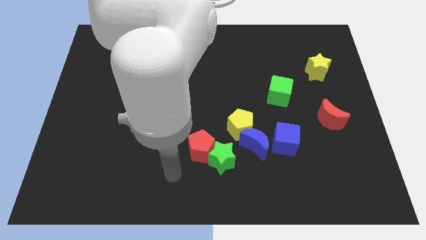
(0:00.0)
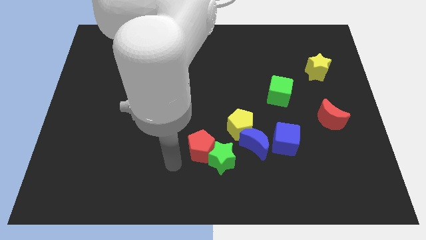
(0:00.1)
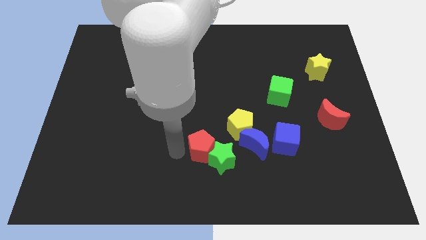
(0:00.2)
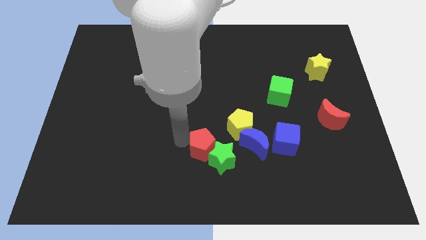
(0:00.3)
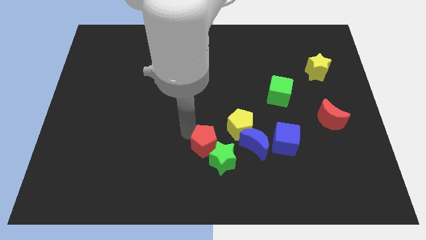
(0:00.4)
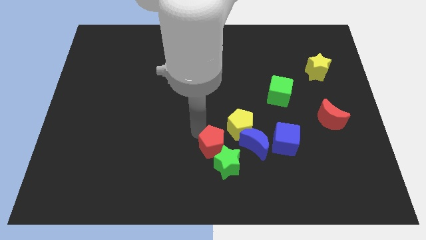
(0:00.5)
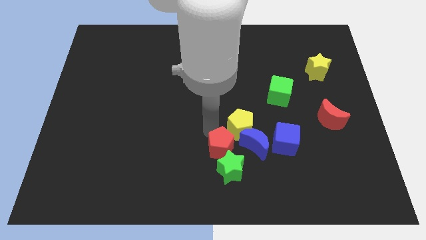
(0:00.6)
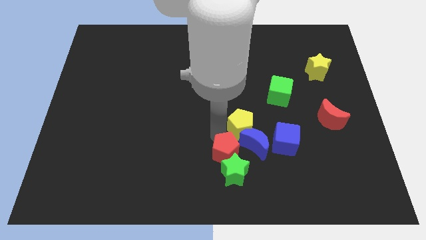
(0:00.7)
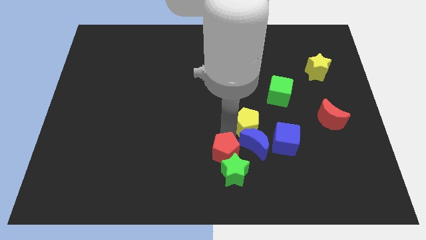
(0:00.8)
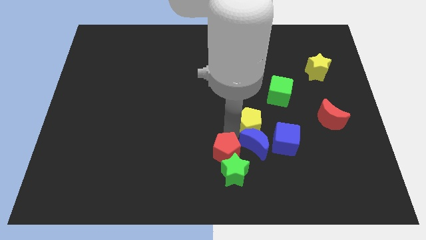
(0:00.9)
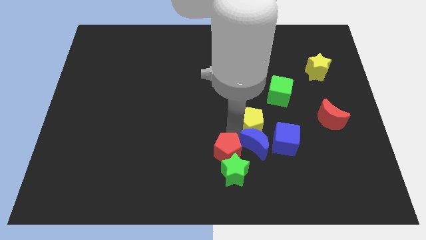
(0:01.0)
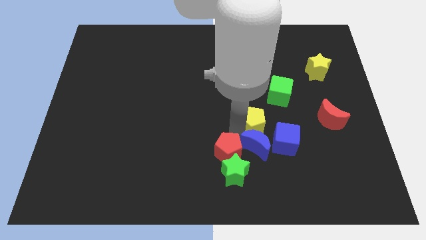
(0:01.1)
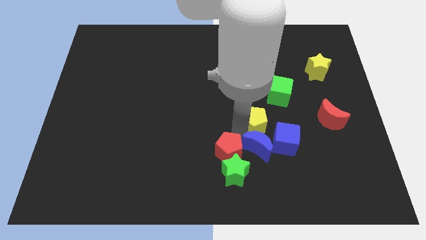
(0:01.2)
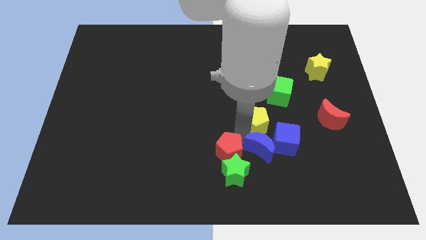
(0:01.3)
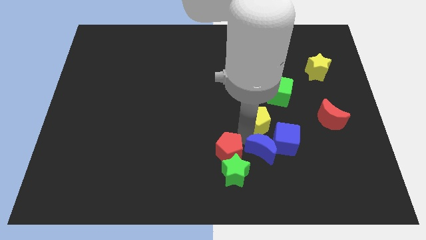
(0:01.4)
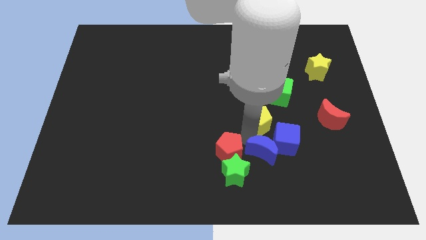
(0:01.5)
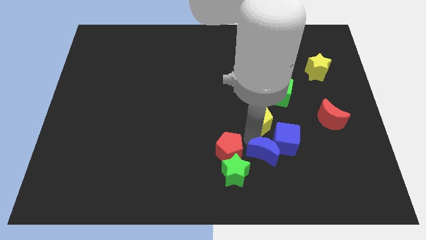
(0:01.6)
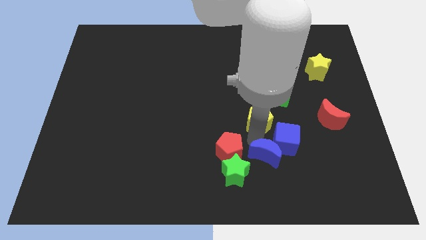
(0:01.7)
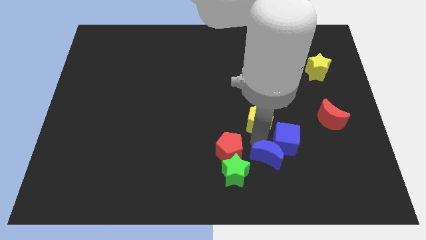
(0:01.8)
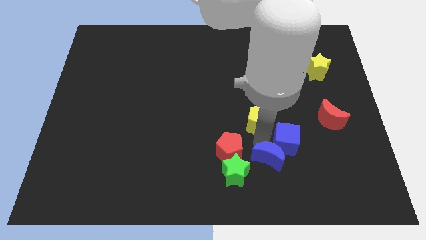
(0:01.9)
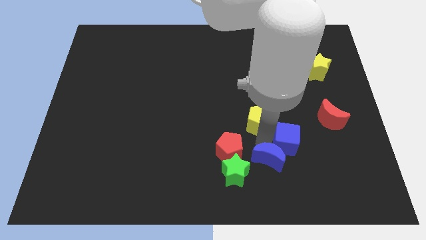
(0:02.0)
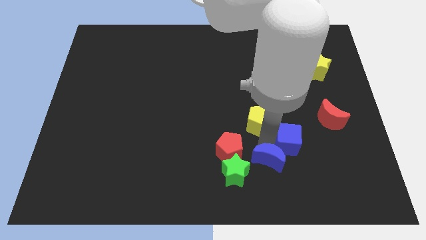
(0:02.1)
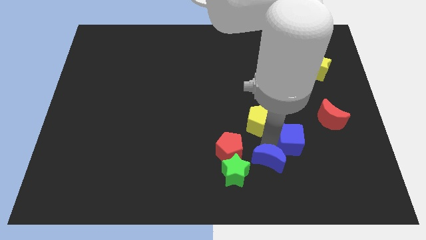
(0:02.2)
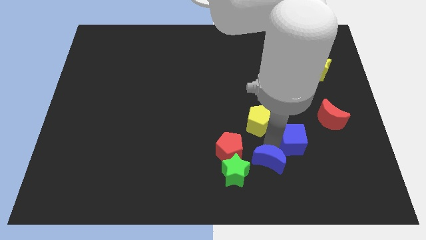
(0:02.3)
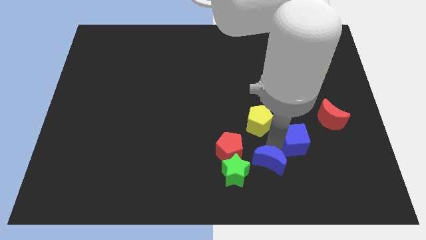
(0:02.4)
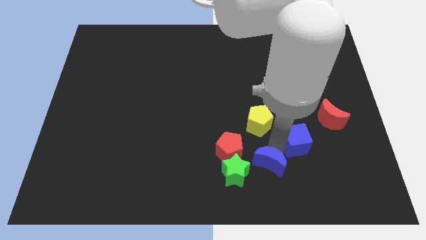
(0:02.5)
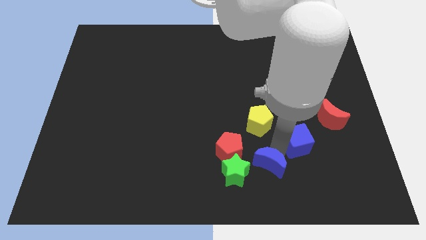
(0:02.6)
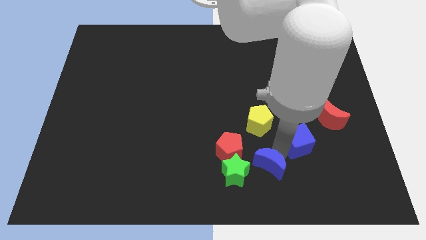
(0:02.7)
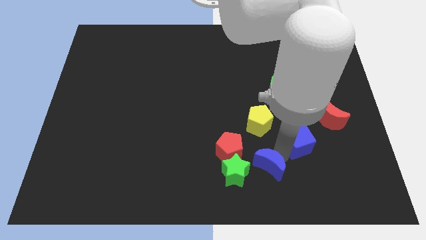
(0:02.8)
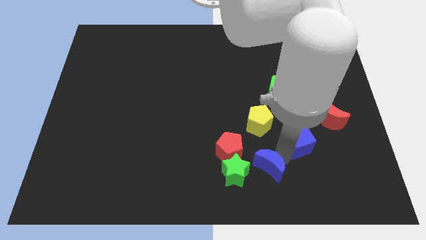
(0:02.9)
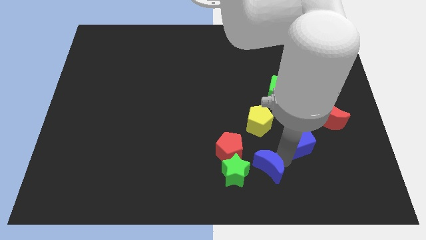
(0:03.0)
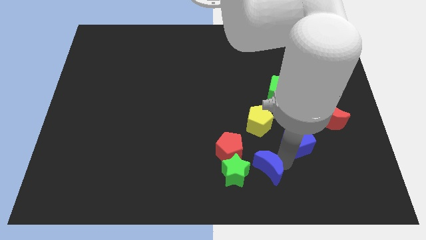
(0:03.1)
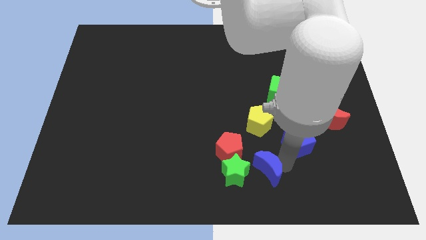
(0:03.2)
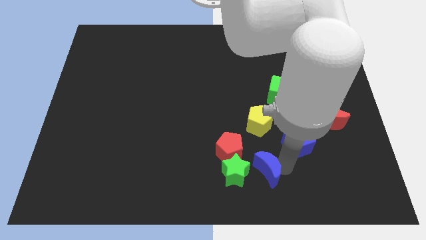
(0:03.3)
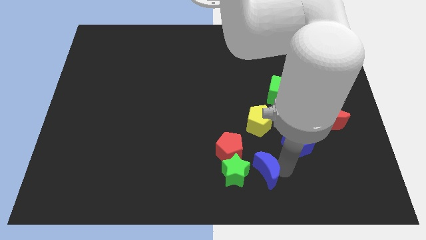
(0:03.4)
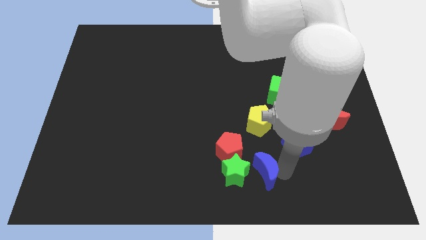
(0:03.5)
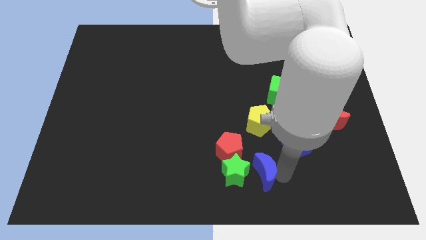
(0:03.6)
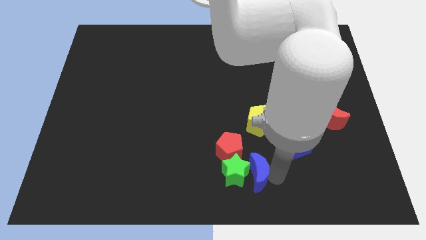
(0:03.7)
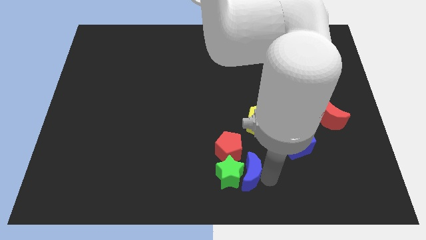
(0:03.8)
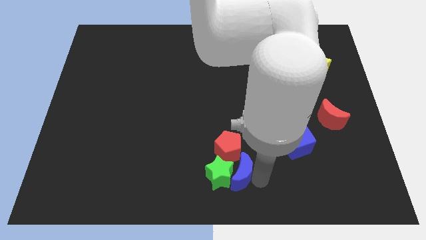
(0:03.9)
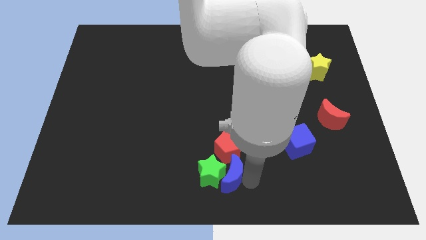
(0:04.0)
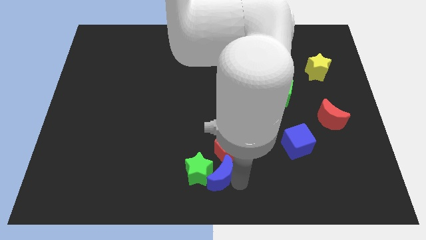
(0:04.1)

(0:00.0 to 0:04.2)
separate the blue moon from the group

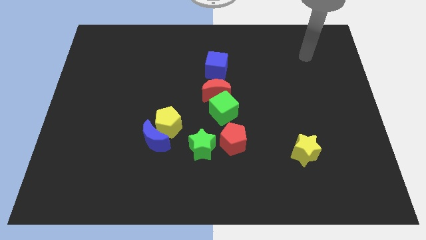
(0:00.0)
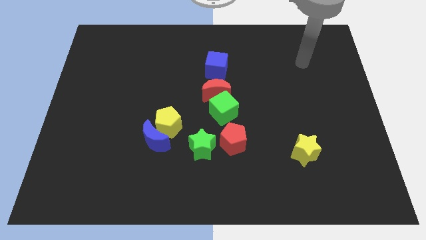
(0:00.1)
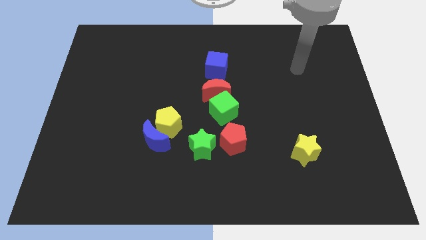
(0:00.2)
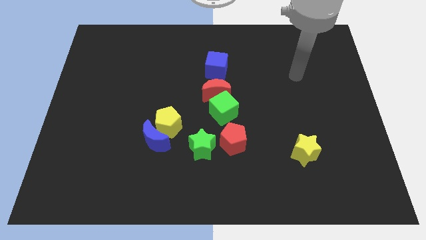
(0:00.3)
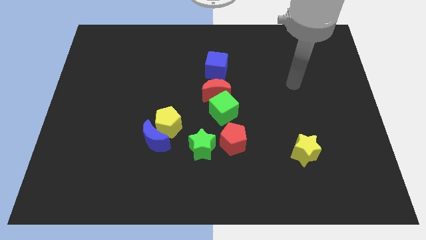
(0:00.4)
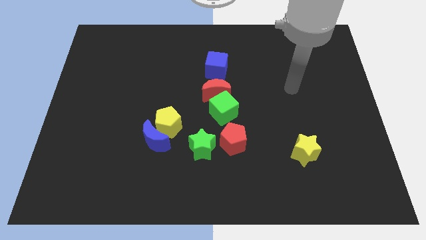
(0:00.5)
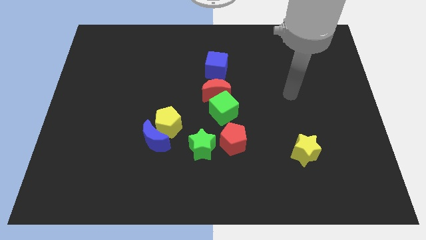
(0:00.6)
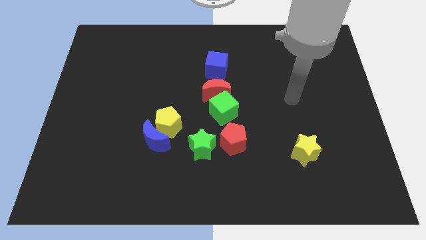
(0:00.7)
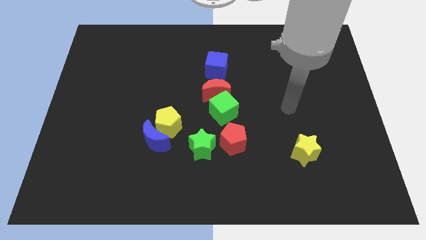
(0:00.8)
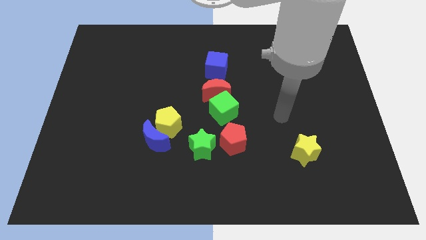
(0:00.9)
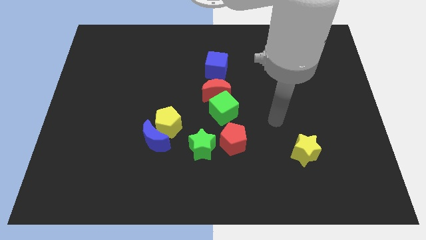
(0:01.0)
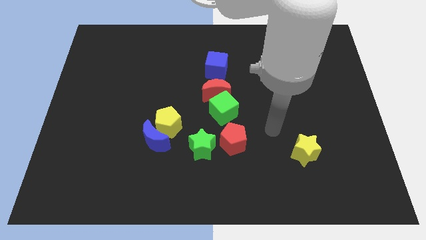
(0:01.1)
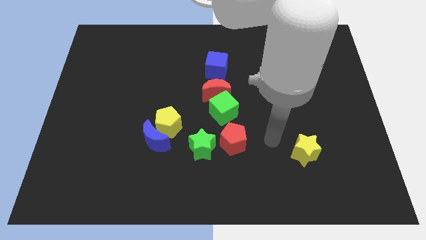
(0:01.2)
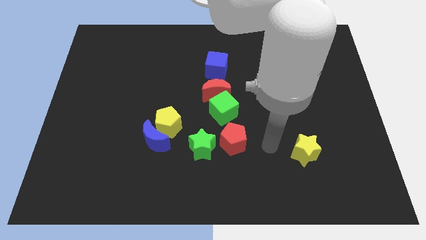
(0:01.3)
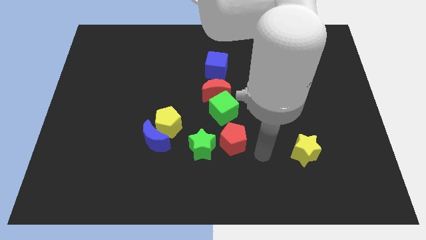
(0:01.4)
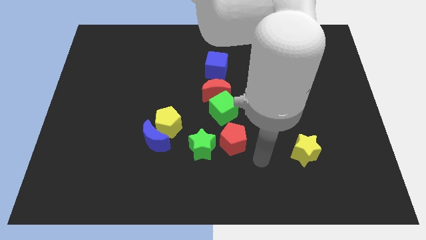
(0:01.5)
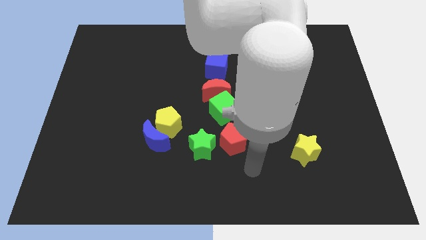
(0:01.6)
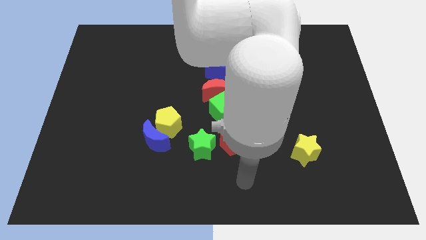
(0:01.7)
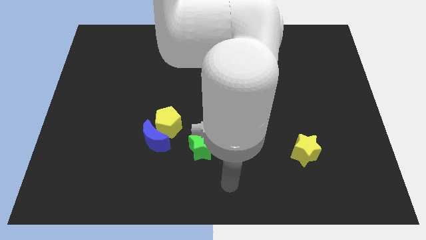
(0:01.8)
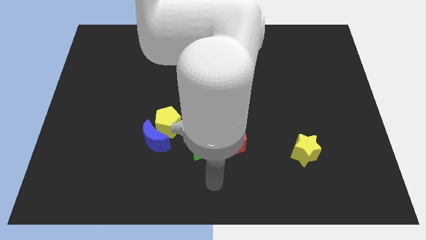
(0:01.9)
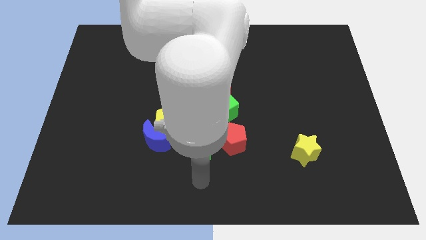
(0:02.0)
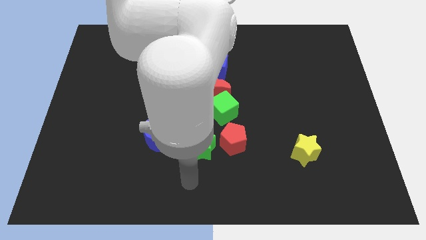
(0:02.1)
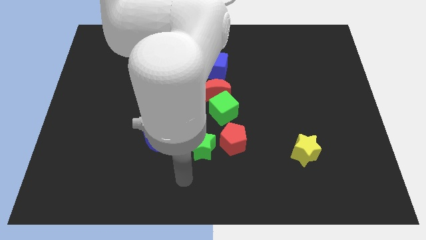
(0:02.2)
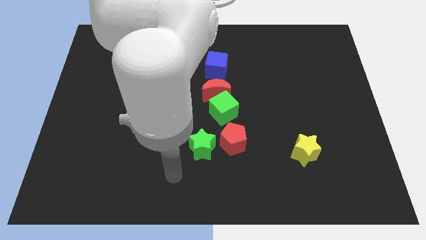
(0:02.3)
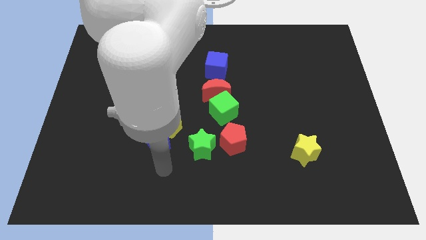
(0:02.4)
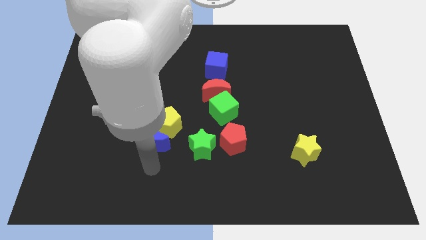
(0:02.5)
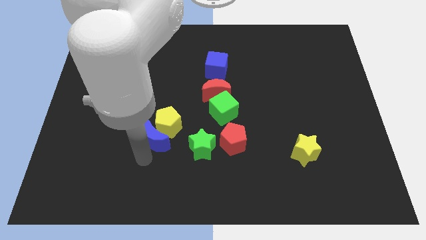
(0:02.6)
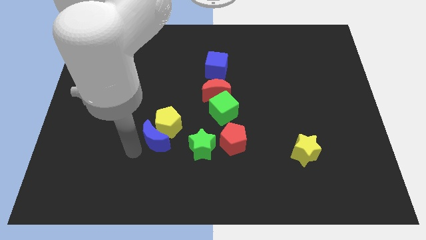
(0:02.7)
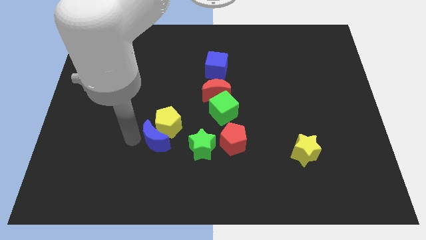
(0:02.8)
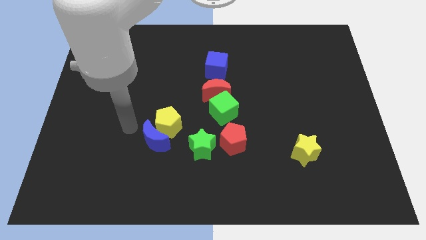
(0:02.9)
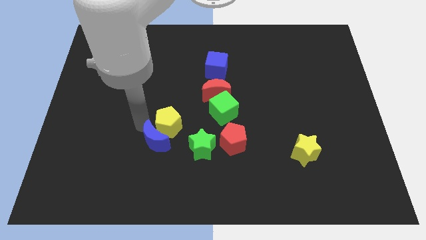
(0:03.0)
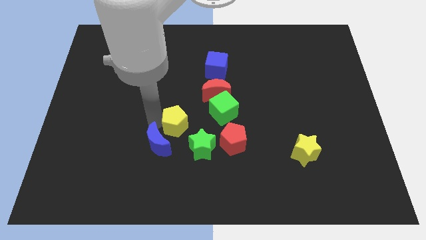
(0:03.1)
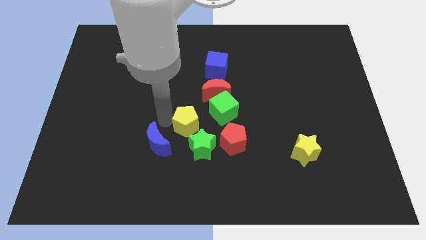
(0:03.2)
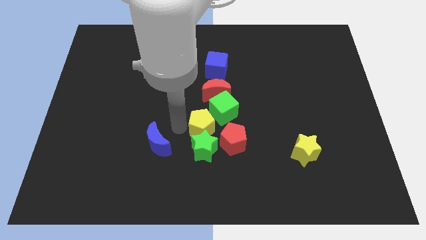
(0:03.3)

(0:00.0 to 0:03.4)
separate the blue moon from the yellow pentagon

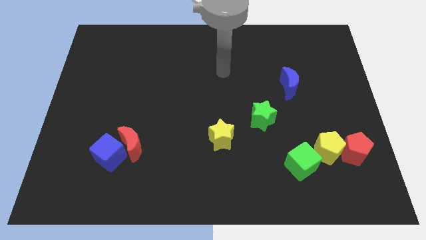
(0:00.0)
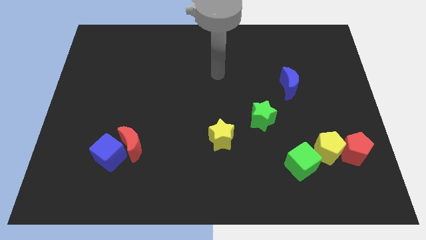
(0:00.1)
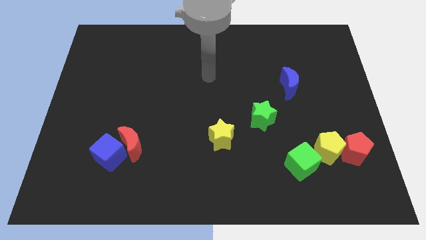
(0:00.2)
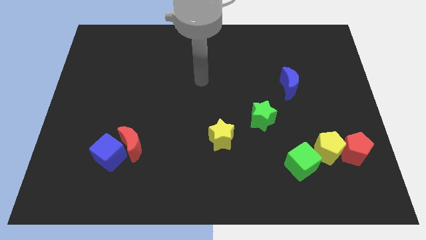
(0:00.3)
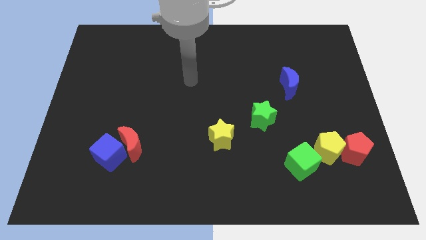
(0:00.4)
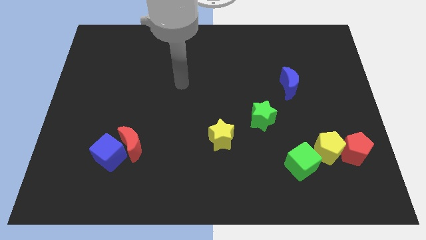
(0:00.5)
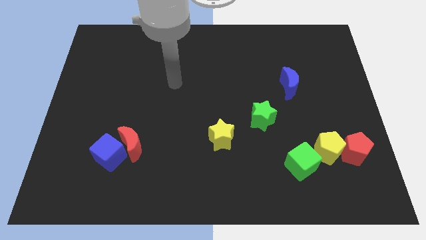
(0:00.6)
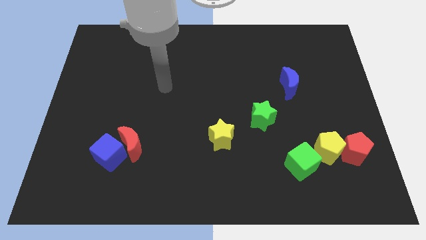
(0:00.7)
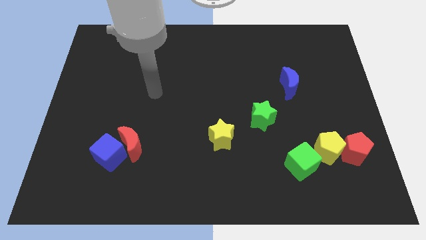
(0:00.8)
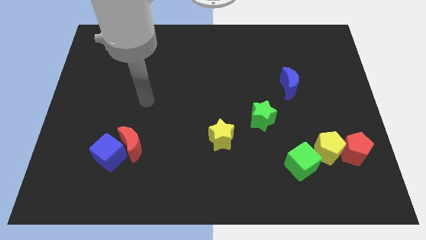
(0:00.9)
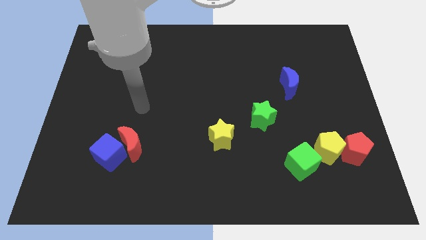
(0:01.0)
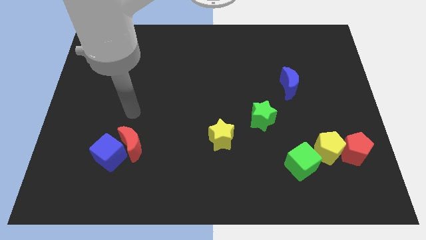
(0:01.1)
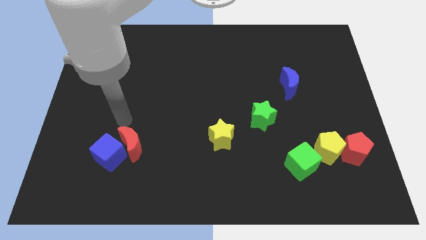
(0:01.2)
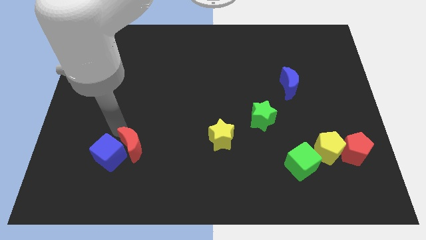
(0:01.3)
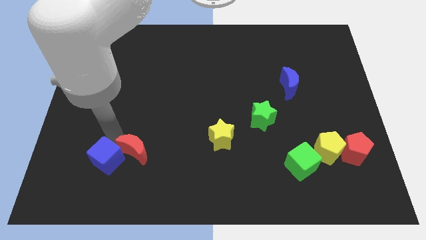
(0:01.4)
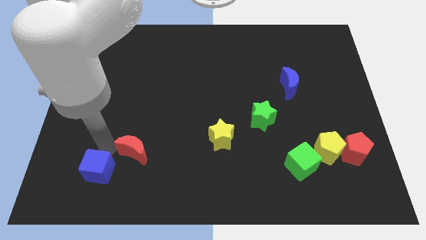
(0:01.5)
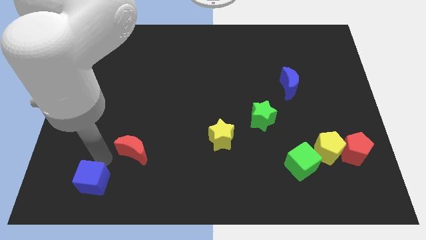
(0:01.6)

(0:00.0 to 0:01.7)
move the red moon away from the blue cube

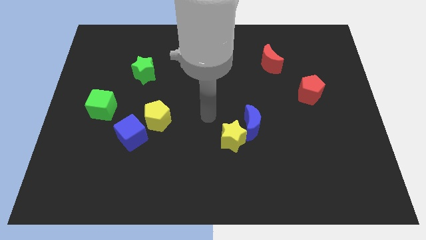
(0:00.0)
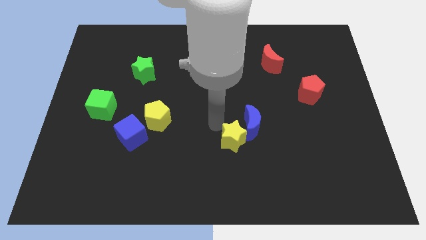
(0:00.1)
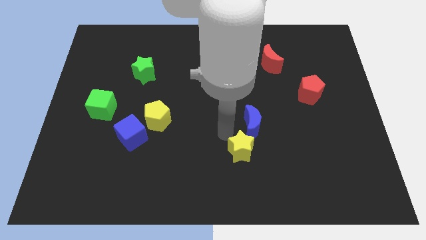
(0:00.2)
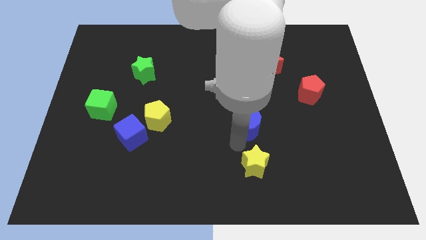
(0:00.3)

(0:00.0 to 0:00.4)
move the blue moon away from the yellow star
